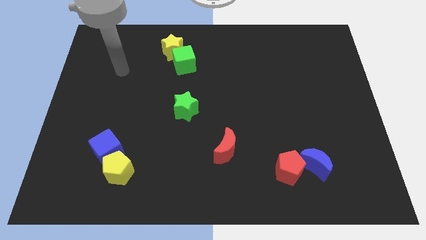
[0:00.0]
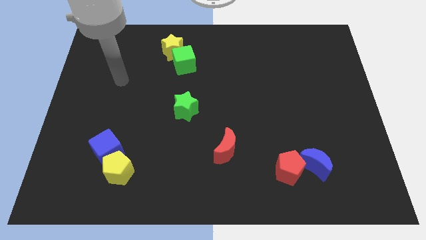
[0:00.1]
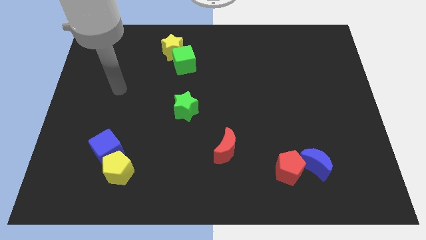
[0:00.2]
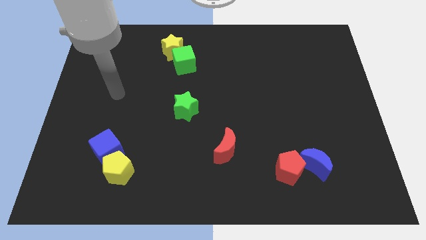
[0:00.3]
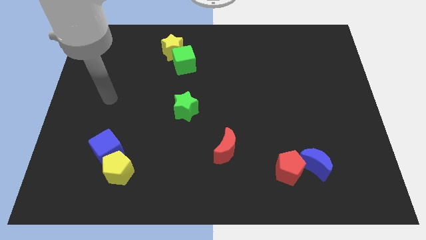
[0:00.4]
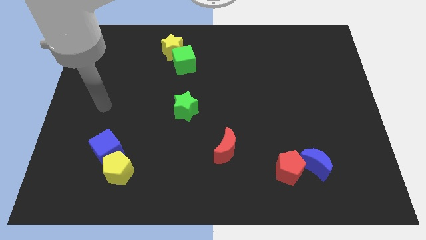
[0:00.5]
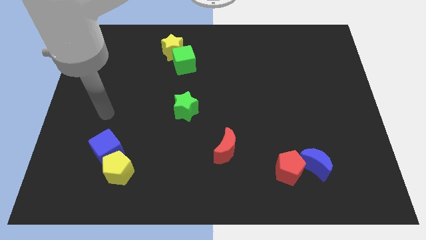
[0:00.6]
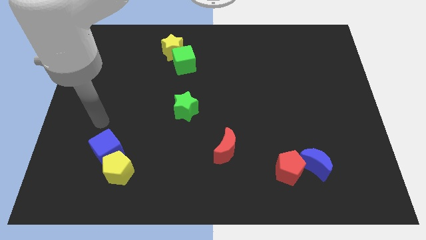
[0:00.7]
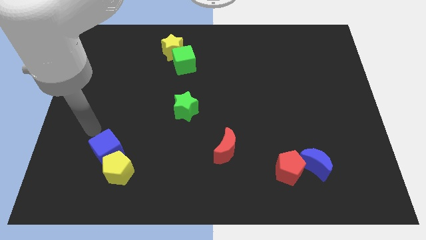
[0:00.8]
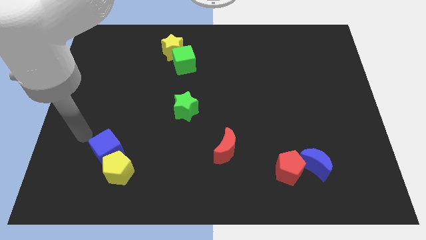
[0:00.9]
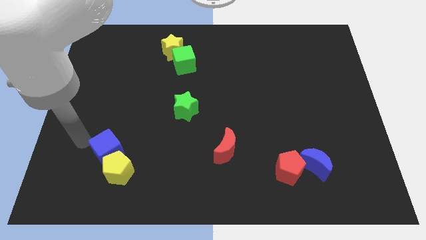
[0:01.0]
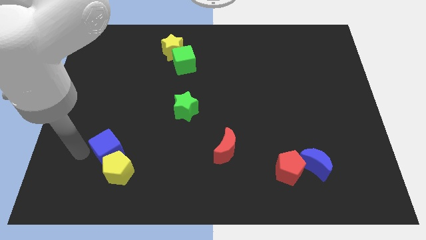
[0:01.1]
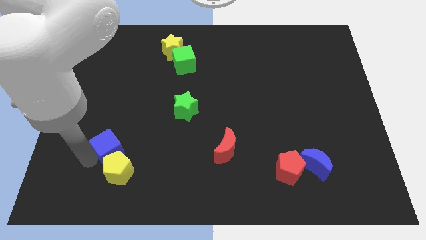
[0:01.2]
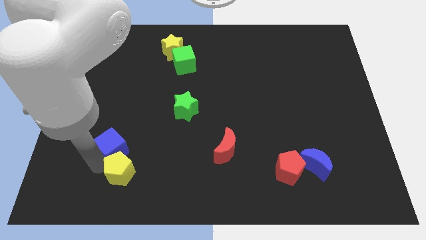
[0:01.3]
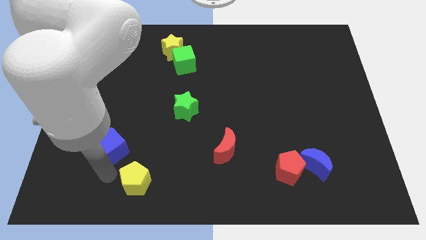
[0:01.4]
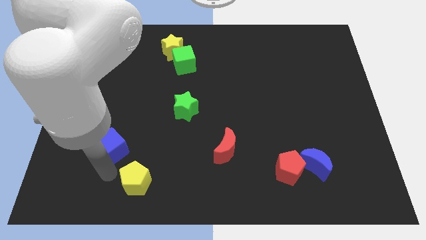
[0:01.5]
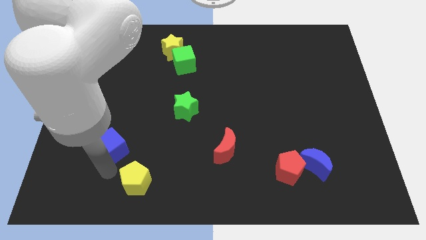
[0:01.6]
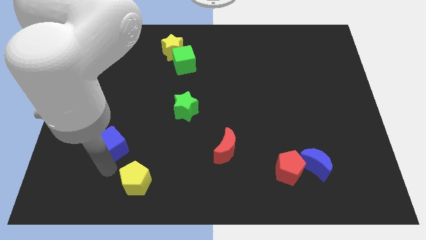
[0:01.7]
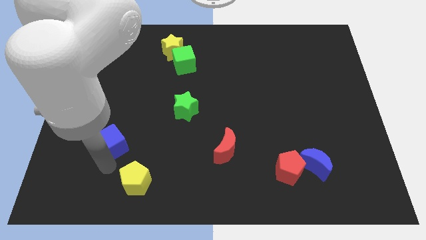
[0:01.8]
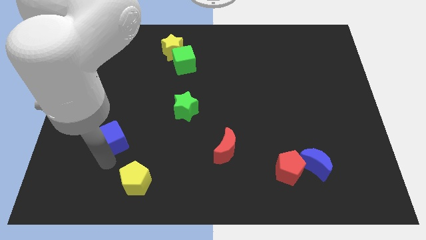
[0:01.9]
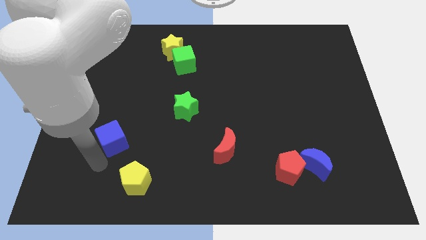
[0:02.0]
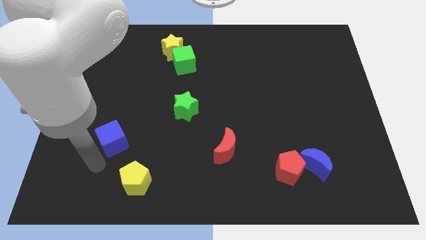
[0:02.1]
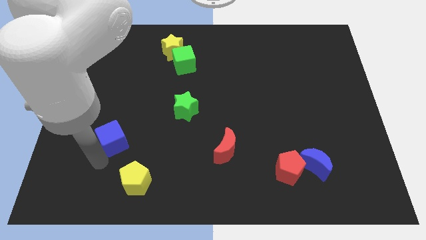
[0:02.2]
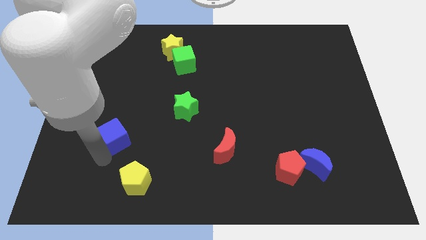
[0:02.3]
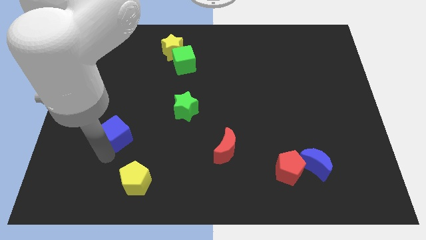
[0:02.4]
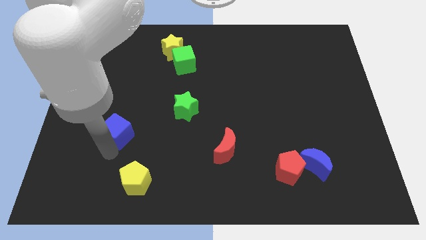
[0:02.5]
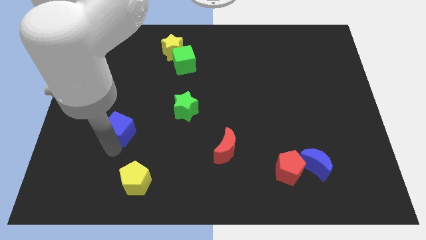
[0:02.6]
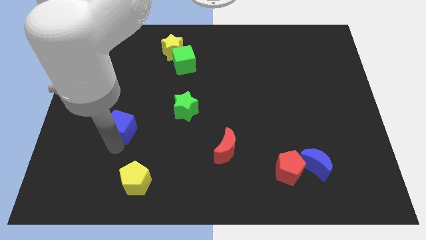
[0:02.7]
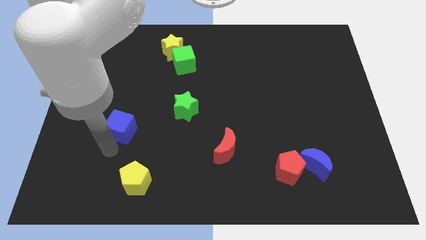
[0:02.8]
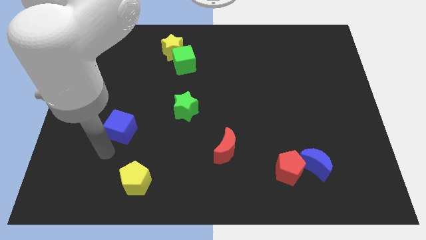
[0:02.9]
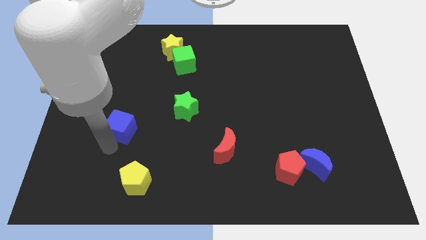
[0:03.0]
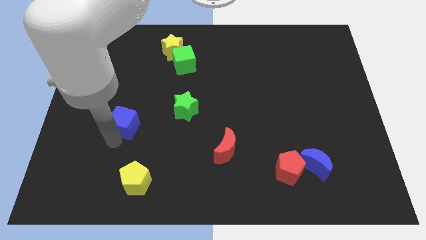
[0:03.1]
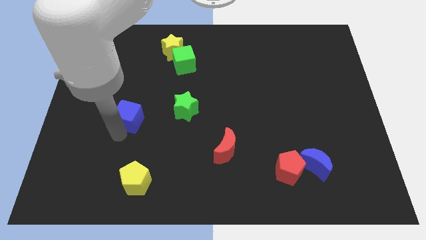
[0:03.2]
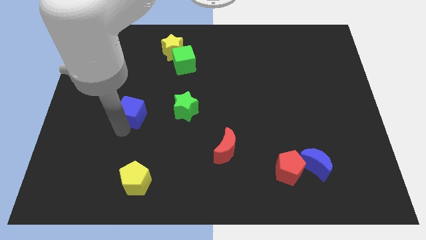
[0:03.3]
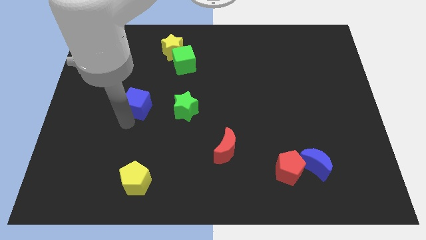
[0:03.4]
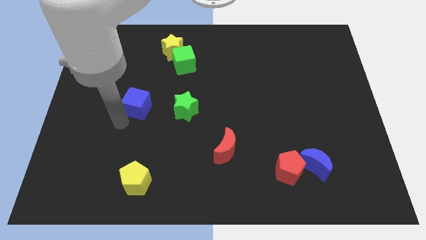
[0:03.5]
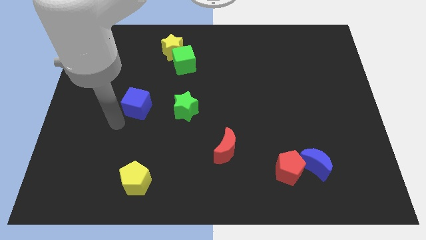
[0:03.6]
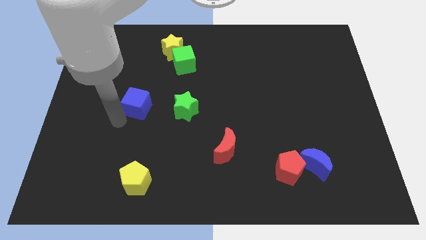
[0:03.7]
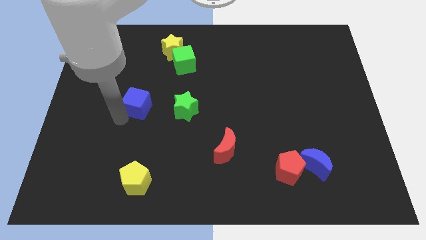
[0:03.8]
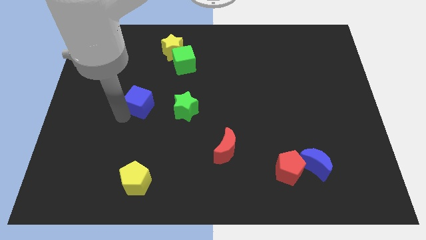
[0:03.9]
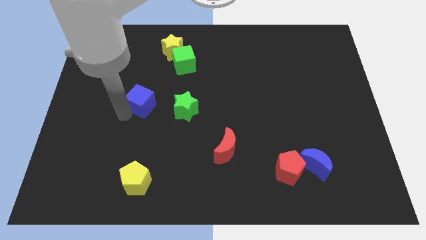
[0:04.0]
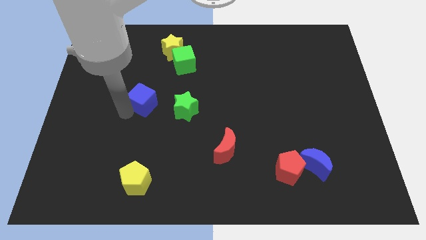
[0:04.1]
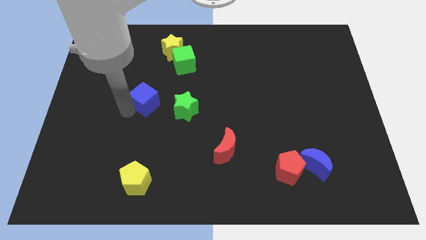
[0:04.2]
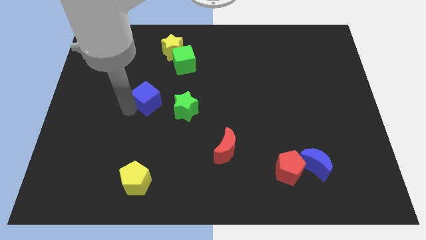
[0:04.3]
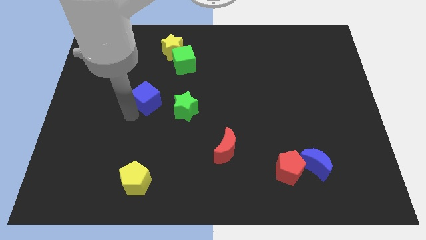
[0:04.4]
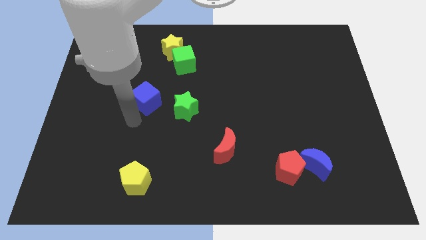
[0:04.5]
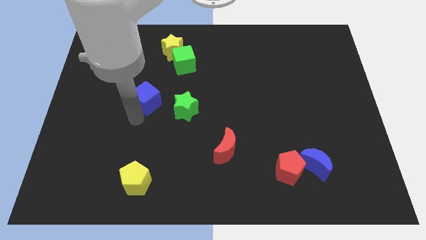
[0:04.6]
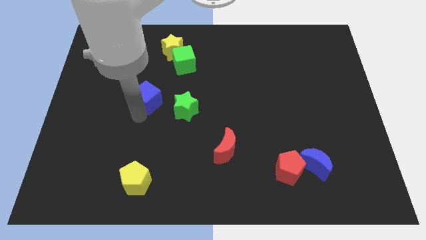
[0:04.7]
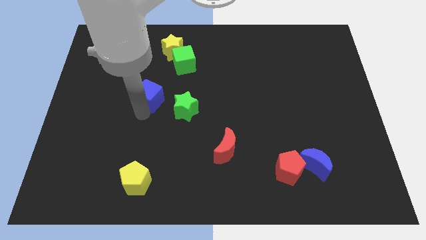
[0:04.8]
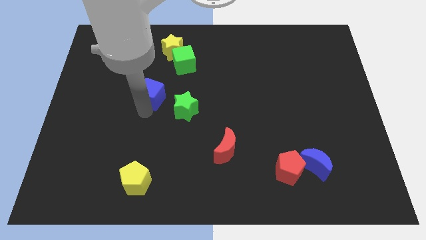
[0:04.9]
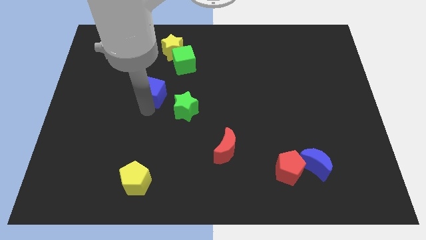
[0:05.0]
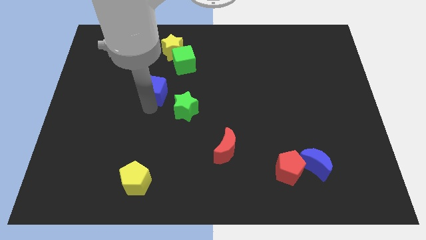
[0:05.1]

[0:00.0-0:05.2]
slide the blue cube to the bottom left side of the green cube

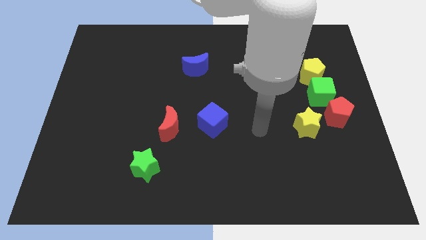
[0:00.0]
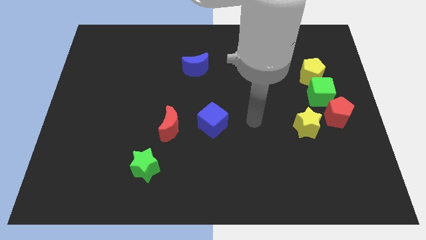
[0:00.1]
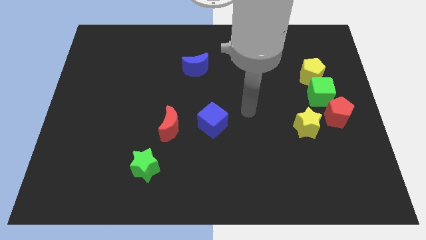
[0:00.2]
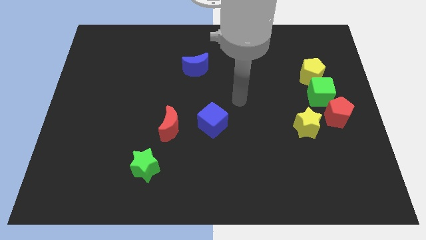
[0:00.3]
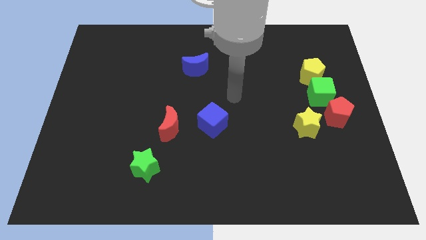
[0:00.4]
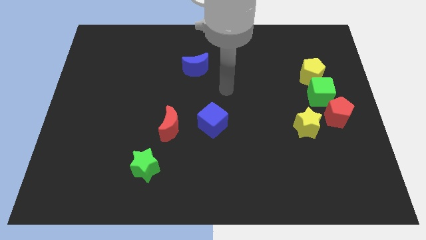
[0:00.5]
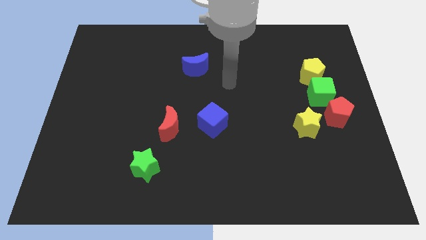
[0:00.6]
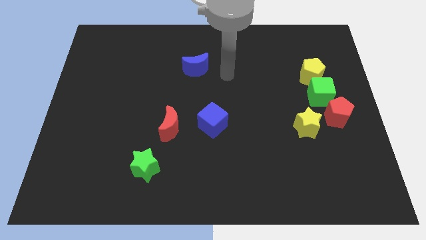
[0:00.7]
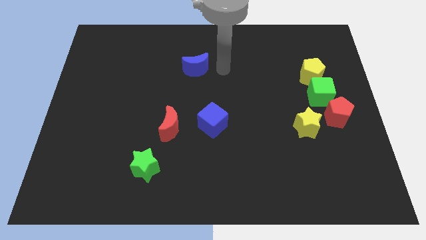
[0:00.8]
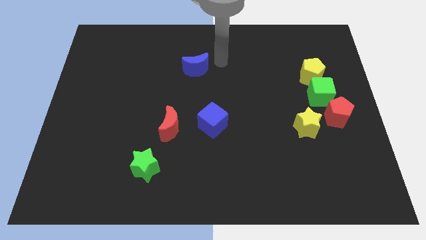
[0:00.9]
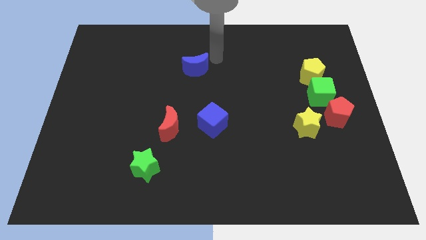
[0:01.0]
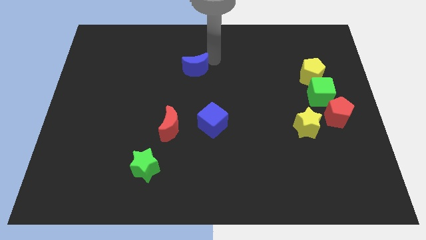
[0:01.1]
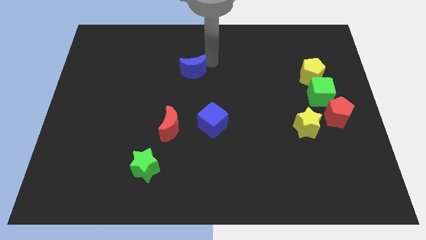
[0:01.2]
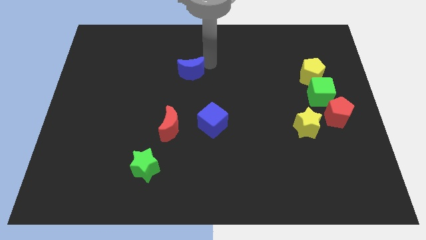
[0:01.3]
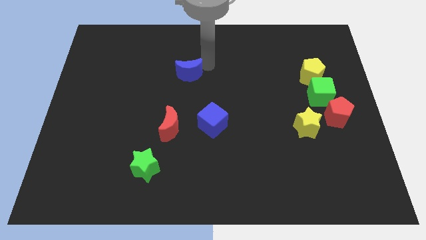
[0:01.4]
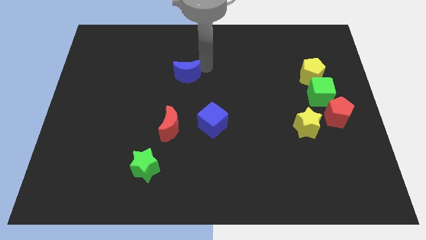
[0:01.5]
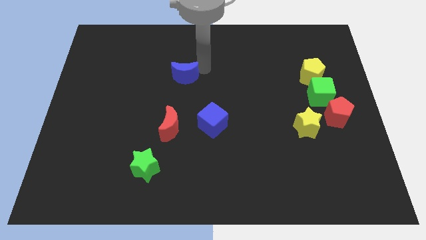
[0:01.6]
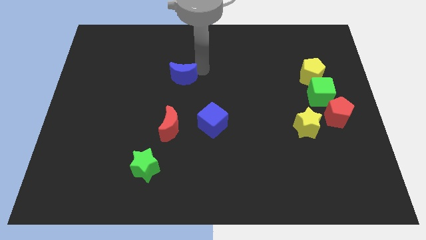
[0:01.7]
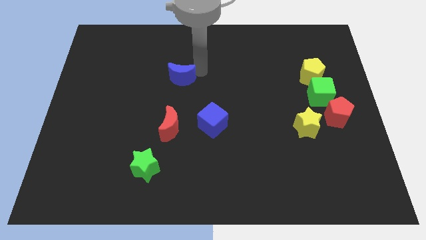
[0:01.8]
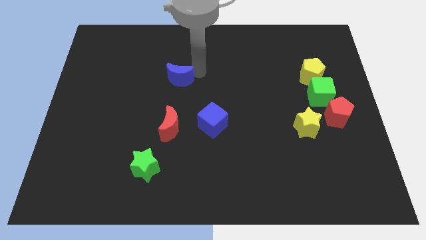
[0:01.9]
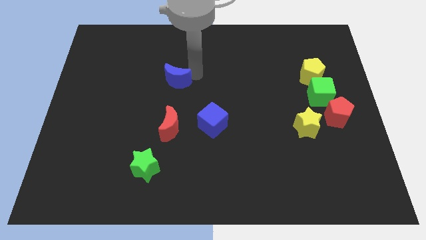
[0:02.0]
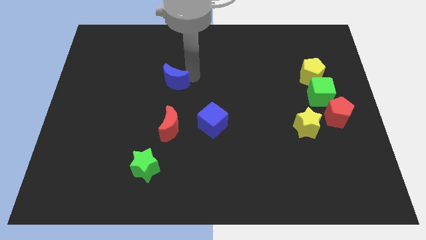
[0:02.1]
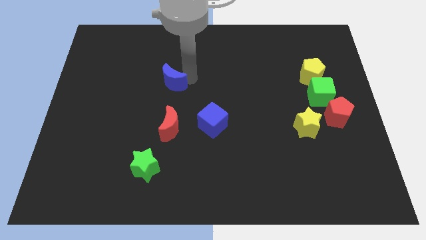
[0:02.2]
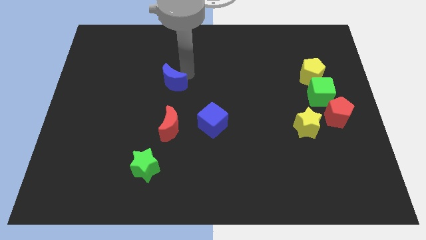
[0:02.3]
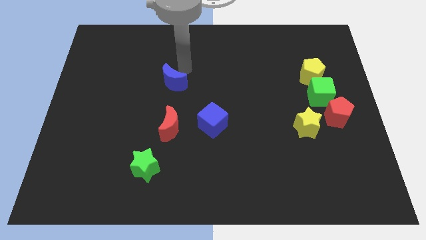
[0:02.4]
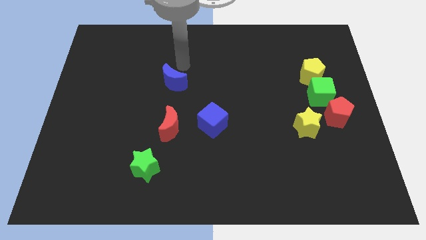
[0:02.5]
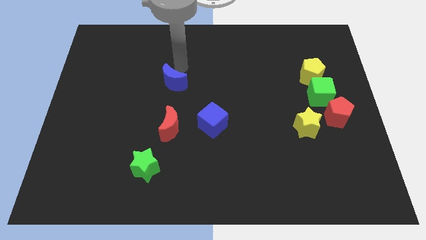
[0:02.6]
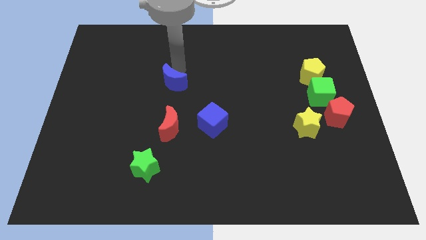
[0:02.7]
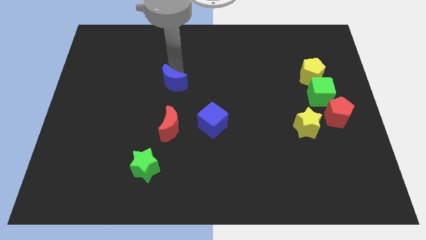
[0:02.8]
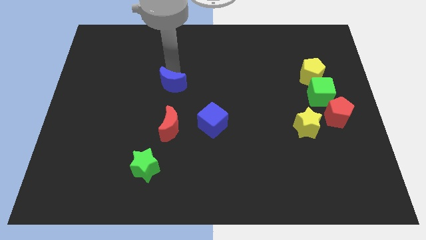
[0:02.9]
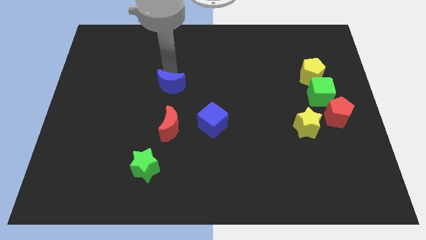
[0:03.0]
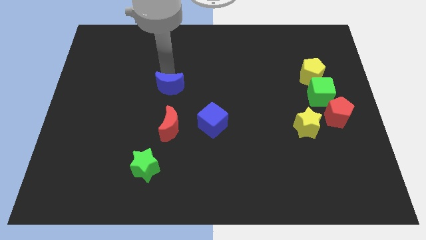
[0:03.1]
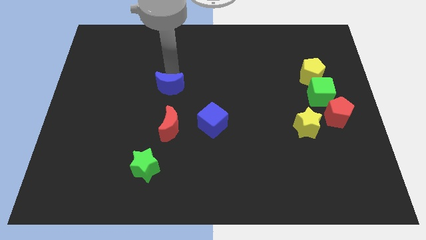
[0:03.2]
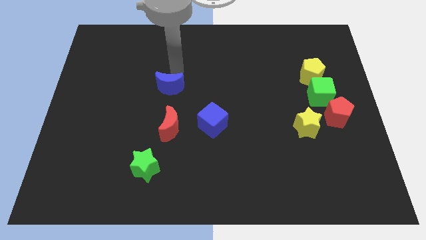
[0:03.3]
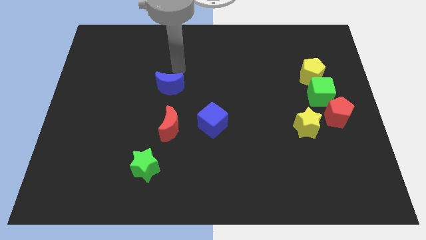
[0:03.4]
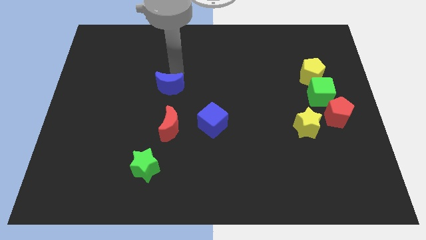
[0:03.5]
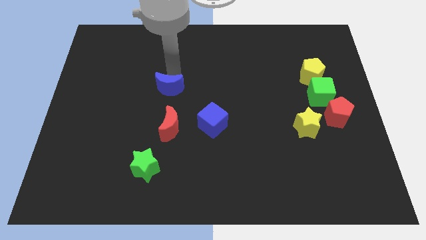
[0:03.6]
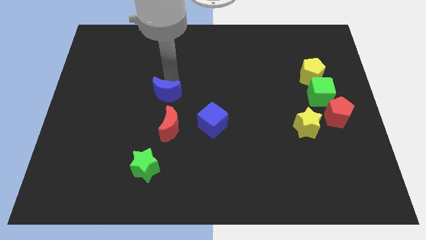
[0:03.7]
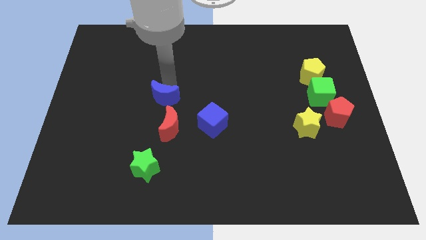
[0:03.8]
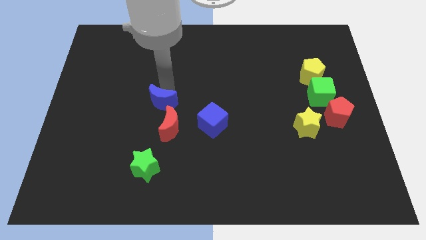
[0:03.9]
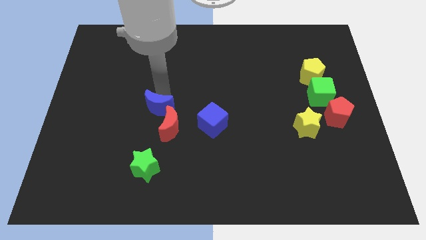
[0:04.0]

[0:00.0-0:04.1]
put the blue moon just left of the blue cube
